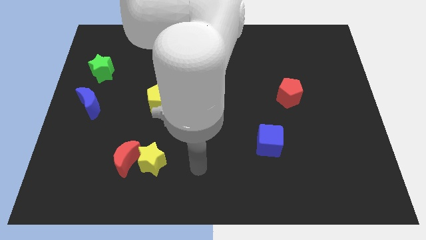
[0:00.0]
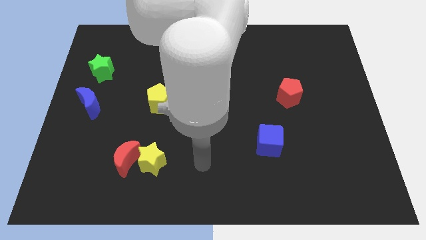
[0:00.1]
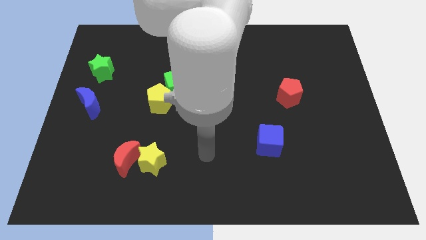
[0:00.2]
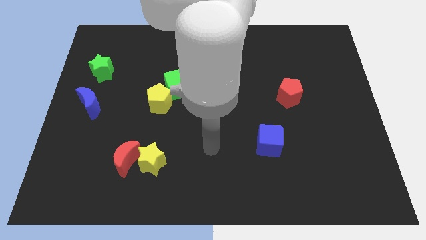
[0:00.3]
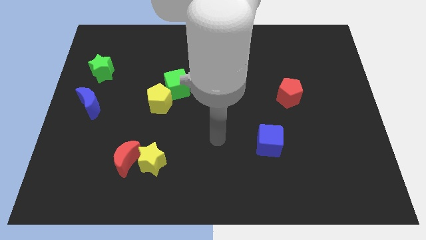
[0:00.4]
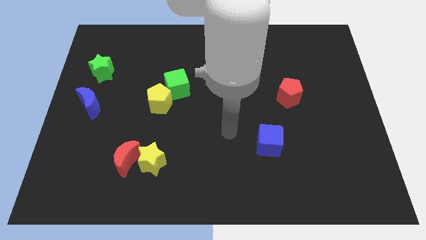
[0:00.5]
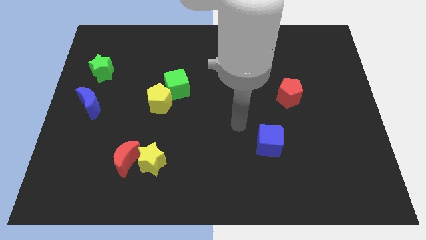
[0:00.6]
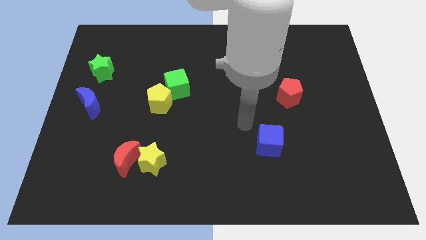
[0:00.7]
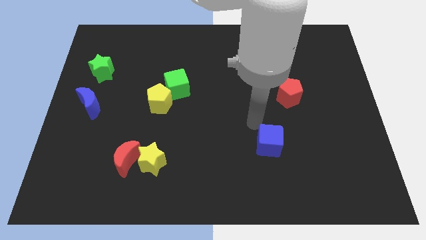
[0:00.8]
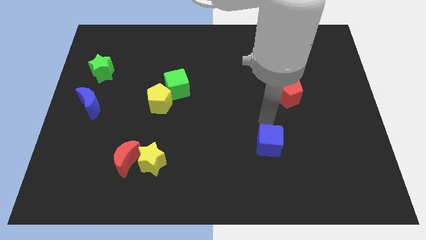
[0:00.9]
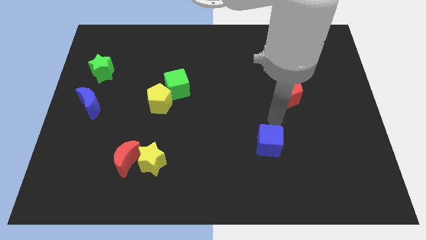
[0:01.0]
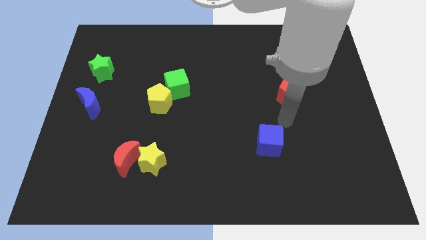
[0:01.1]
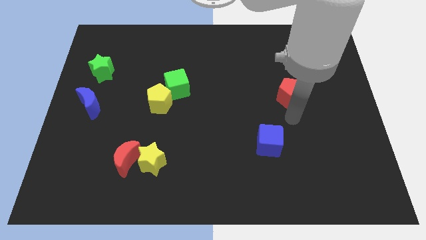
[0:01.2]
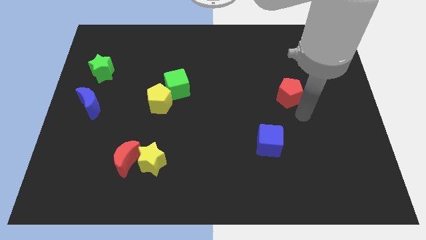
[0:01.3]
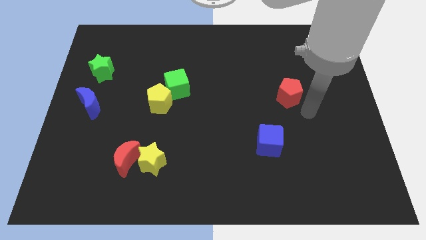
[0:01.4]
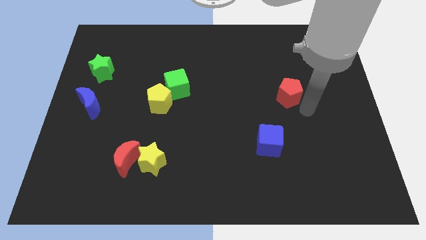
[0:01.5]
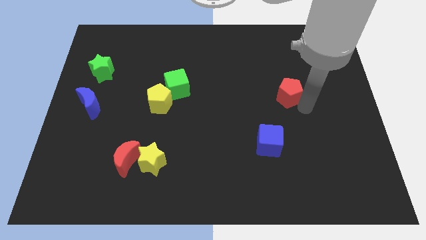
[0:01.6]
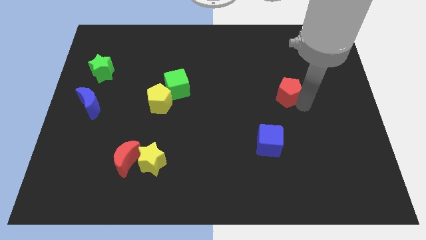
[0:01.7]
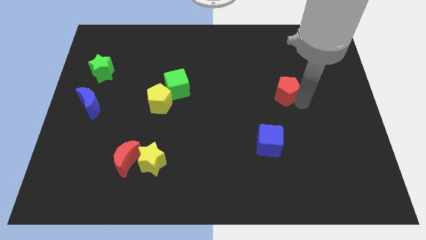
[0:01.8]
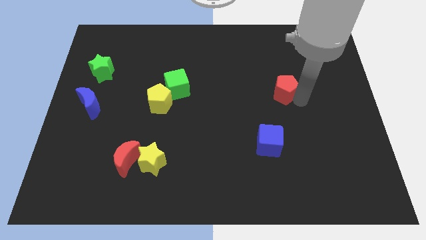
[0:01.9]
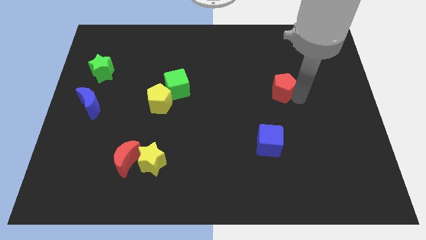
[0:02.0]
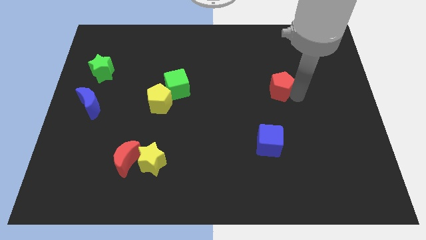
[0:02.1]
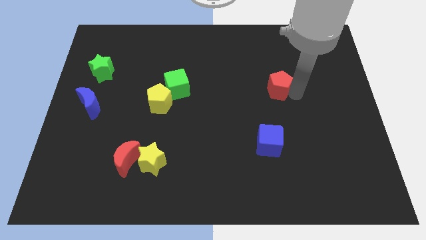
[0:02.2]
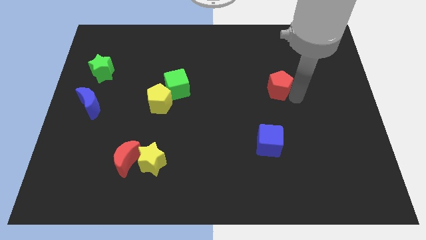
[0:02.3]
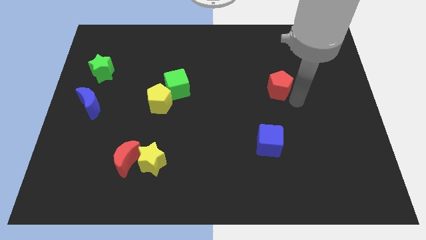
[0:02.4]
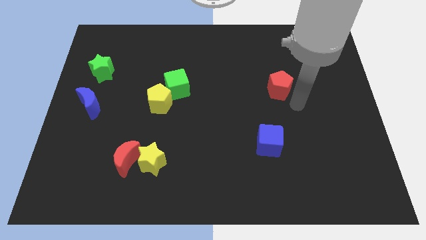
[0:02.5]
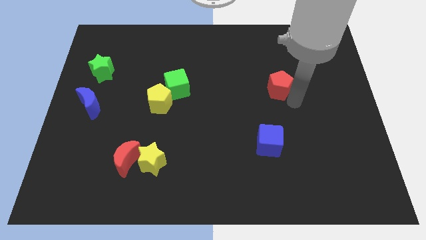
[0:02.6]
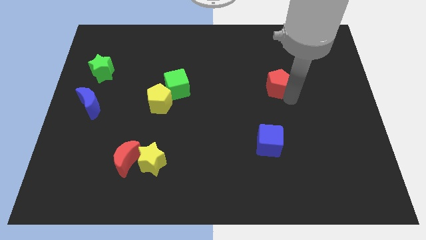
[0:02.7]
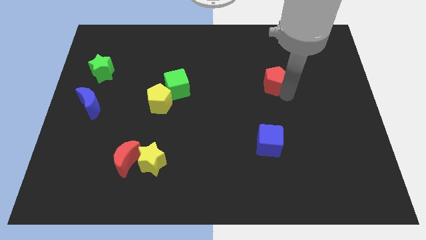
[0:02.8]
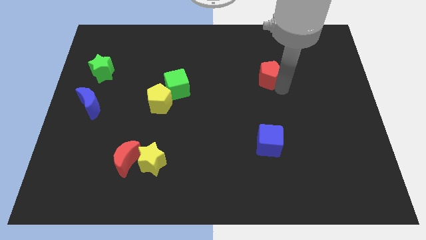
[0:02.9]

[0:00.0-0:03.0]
slide the red pentagon upwards and left a bit

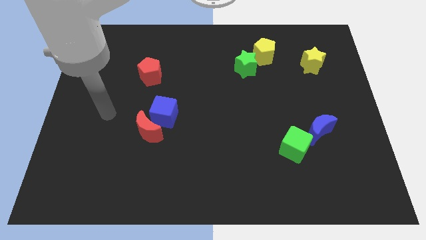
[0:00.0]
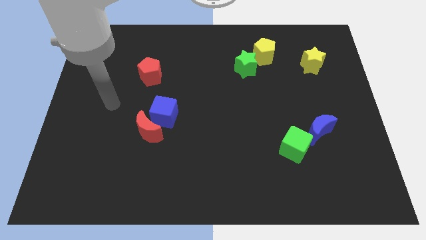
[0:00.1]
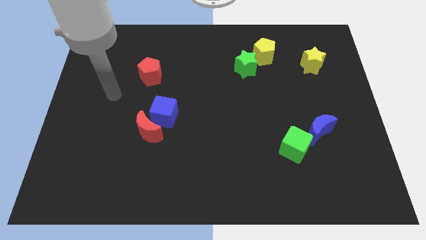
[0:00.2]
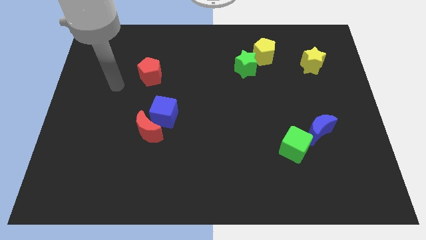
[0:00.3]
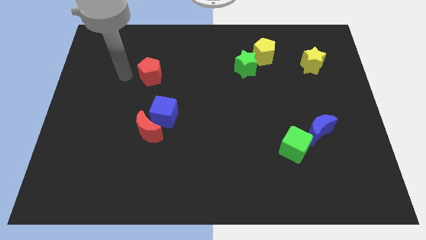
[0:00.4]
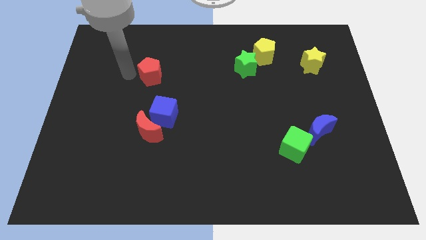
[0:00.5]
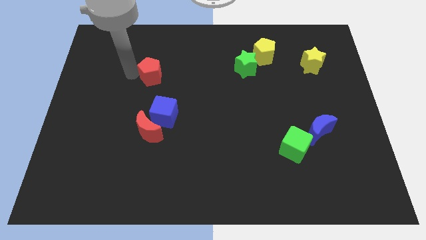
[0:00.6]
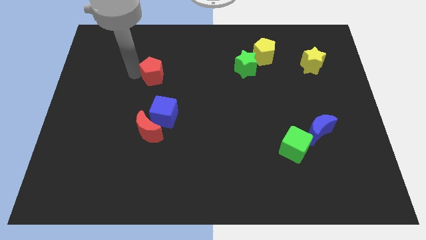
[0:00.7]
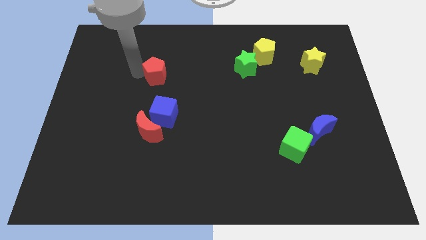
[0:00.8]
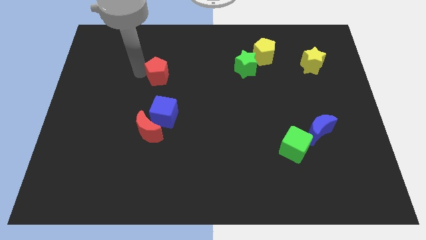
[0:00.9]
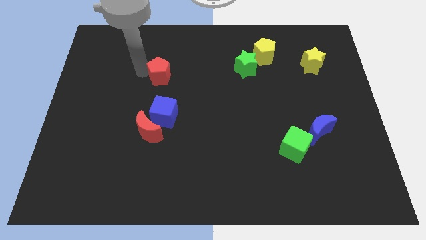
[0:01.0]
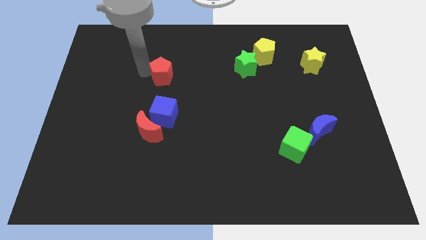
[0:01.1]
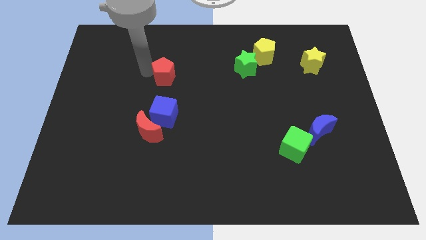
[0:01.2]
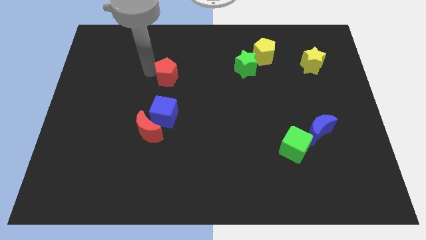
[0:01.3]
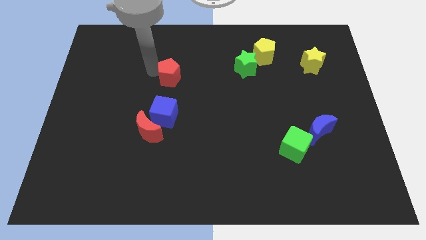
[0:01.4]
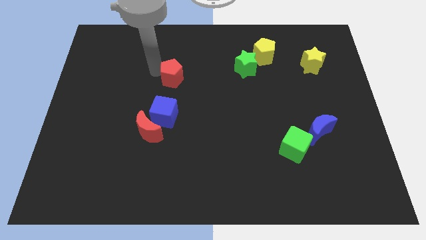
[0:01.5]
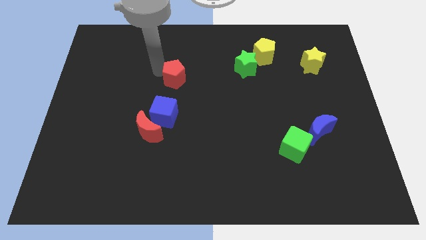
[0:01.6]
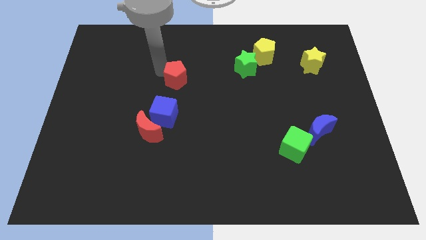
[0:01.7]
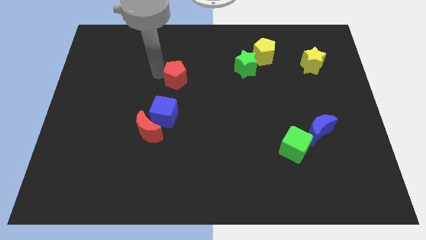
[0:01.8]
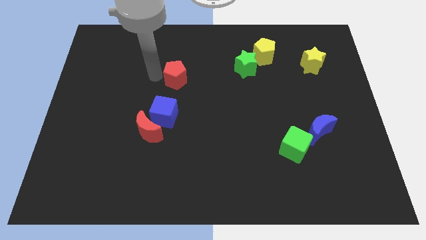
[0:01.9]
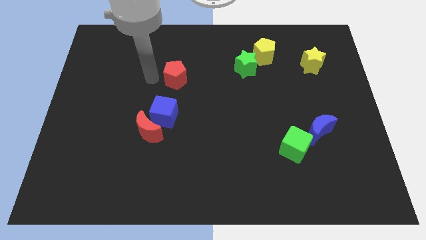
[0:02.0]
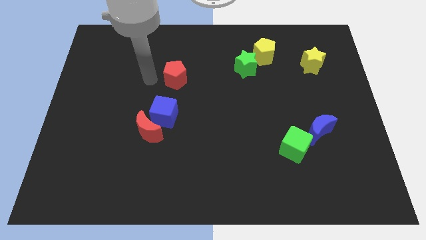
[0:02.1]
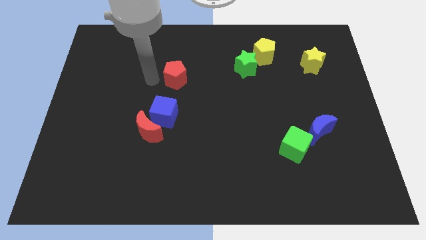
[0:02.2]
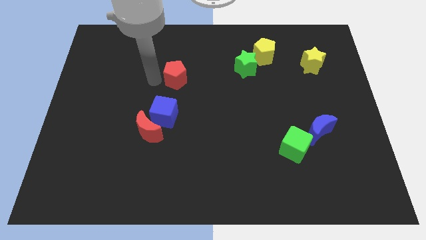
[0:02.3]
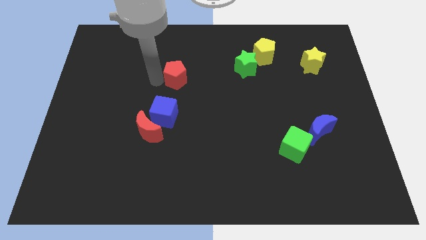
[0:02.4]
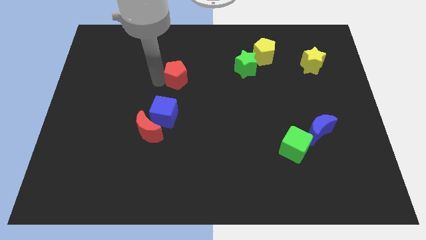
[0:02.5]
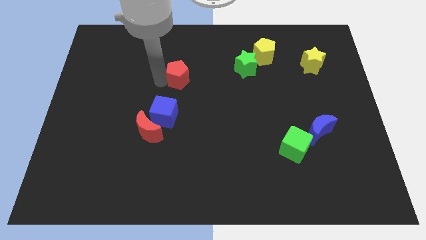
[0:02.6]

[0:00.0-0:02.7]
slightly push the red pentagon to the right

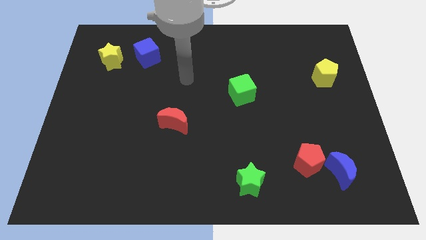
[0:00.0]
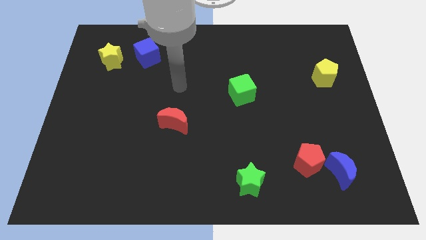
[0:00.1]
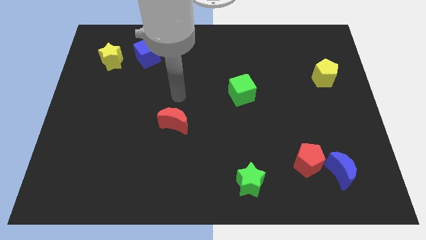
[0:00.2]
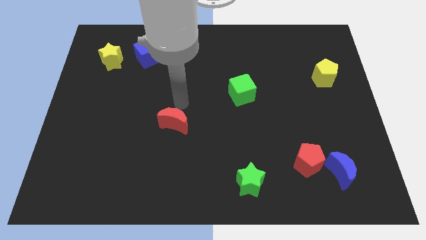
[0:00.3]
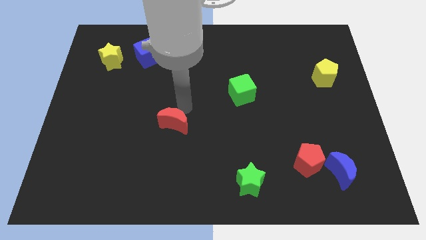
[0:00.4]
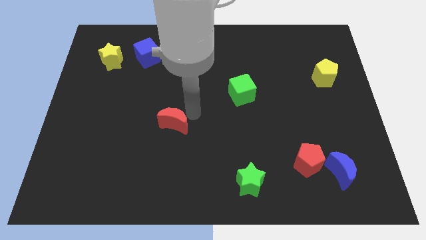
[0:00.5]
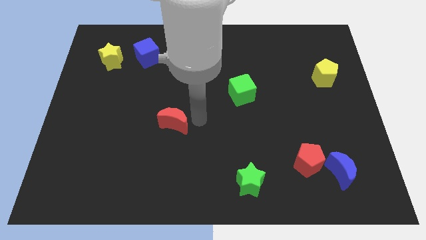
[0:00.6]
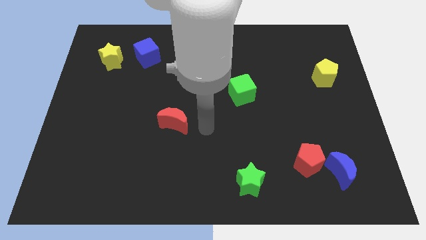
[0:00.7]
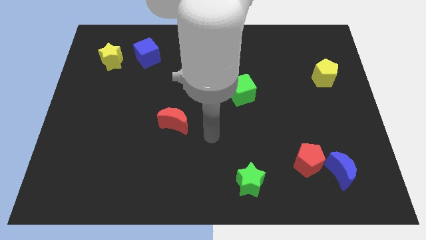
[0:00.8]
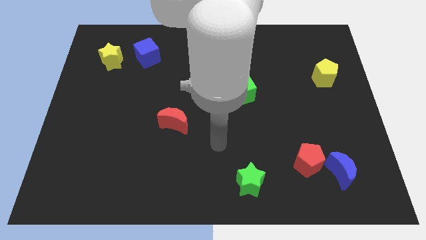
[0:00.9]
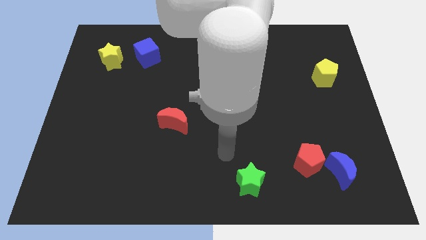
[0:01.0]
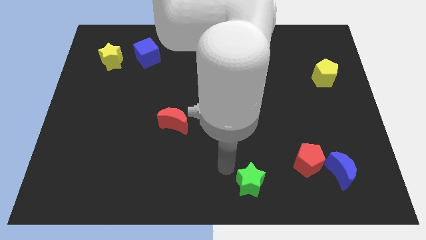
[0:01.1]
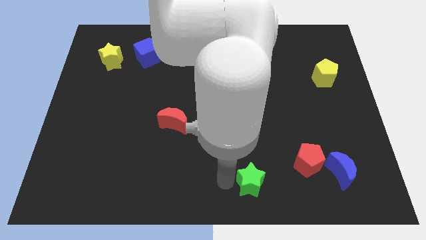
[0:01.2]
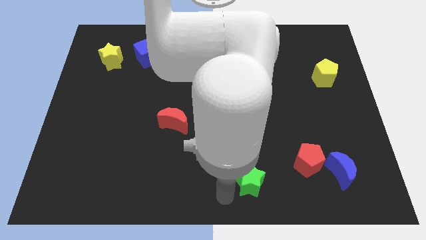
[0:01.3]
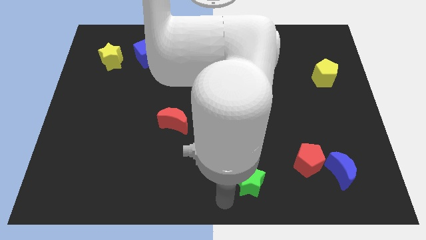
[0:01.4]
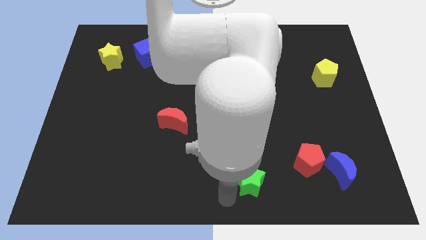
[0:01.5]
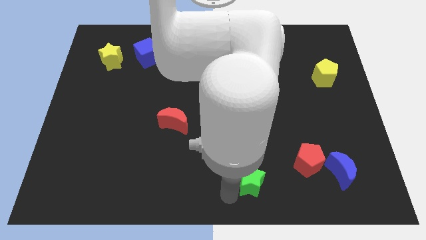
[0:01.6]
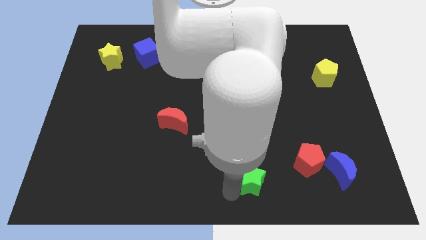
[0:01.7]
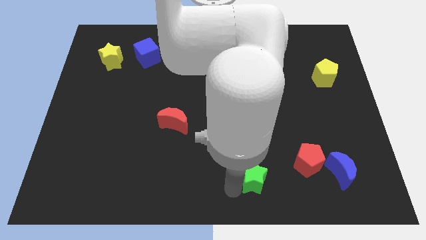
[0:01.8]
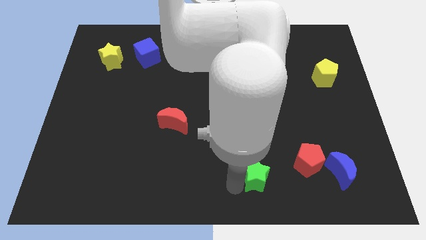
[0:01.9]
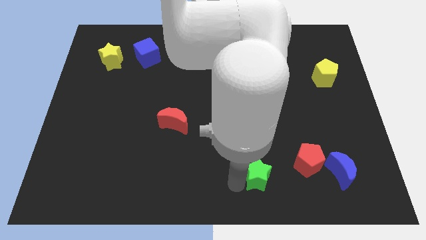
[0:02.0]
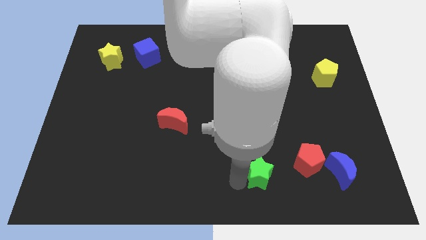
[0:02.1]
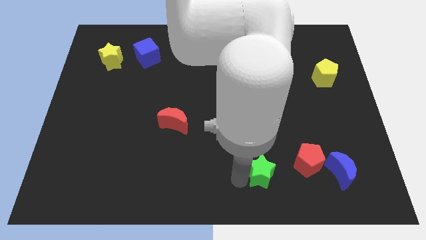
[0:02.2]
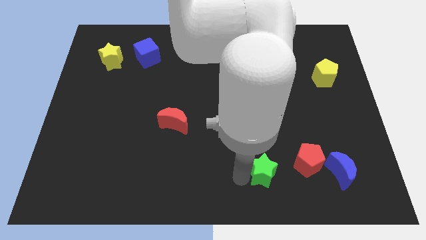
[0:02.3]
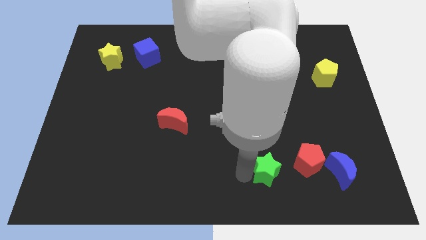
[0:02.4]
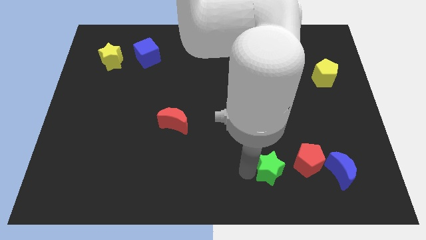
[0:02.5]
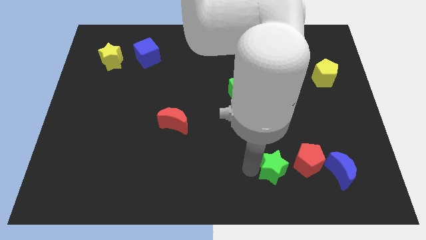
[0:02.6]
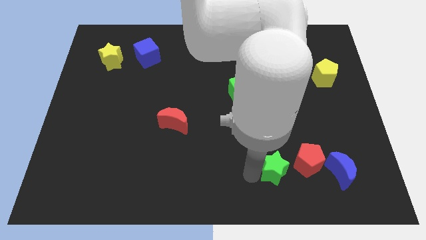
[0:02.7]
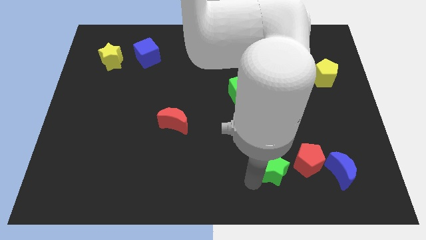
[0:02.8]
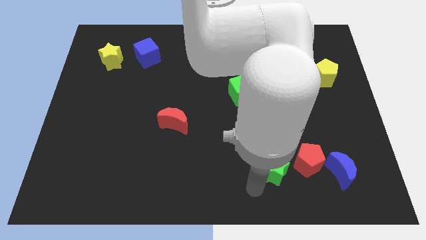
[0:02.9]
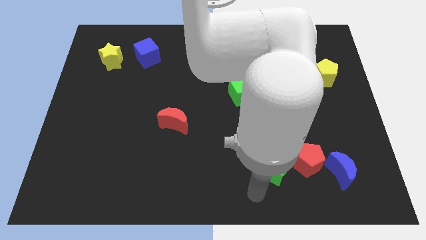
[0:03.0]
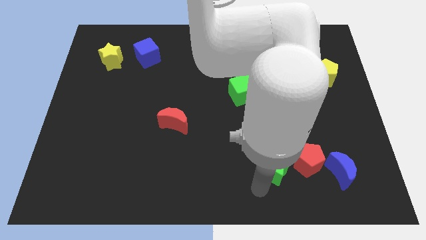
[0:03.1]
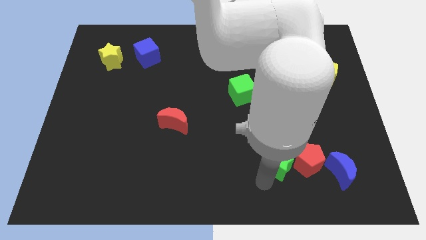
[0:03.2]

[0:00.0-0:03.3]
push the green star diagonally upwards and to the right a bit
